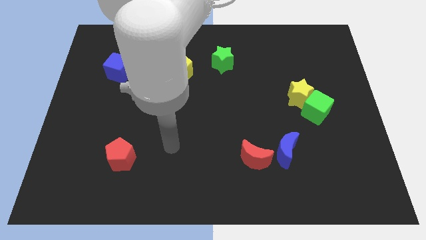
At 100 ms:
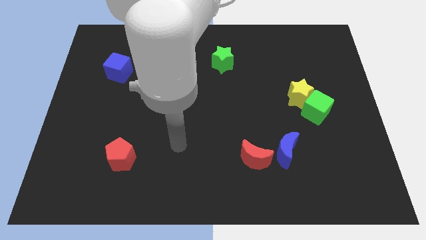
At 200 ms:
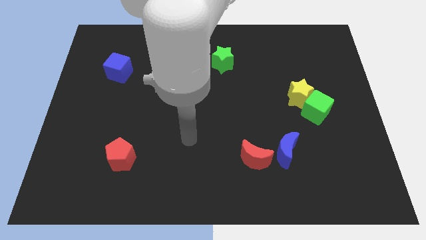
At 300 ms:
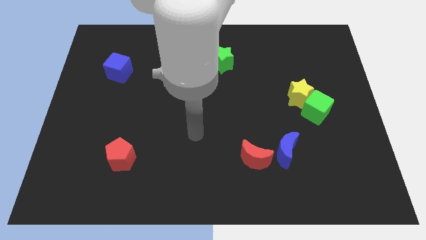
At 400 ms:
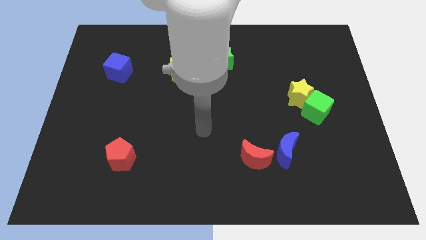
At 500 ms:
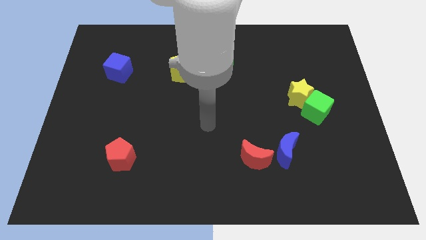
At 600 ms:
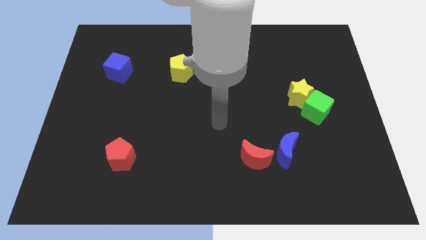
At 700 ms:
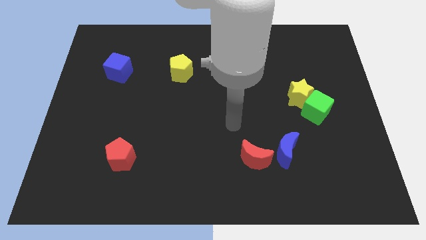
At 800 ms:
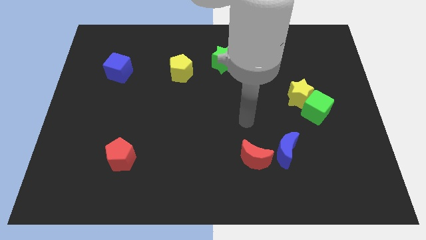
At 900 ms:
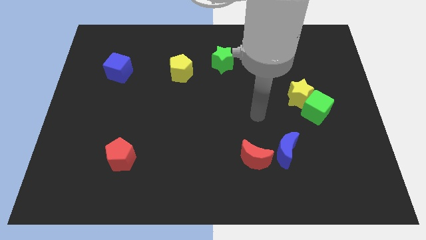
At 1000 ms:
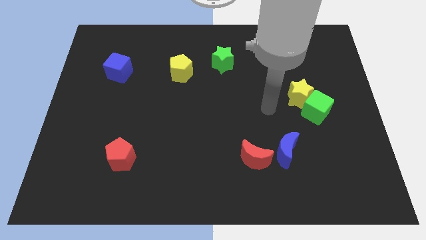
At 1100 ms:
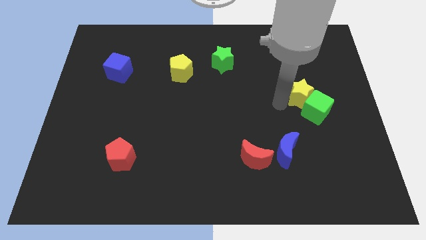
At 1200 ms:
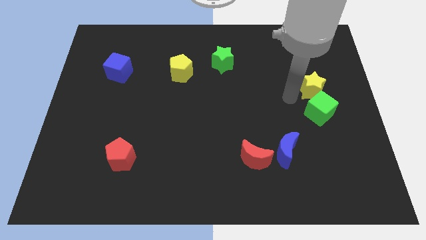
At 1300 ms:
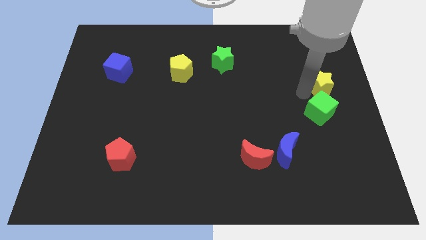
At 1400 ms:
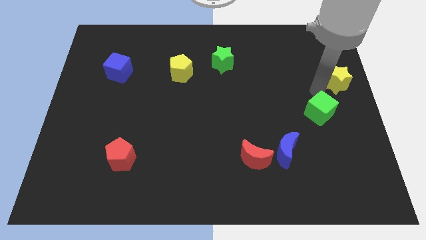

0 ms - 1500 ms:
separate the green cube from the yellow star

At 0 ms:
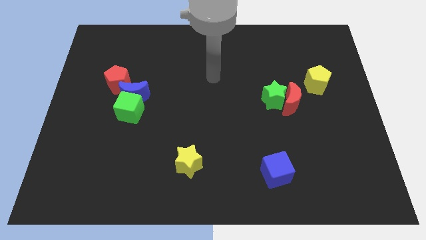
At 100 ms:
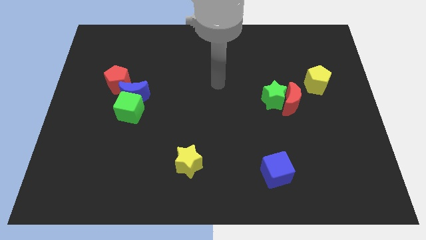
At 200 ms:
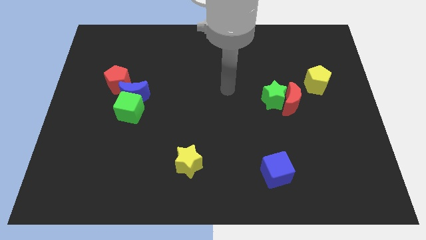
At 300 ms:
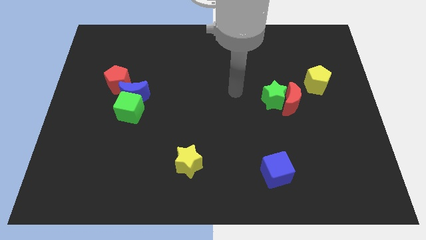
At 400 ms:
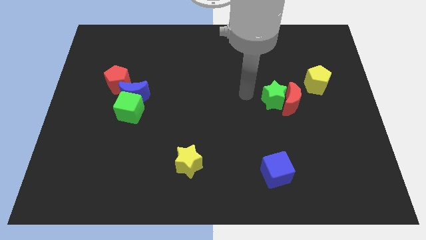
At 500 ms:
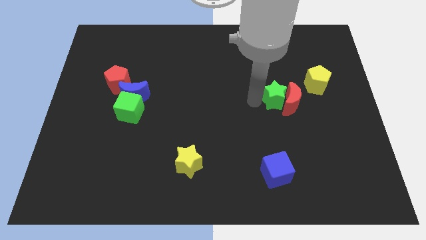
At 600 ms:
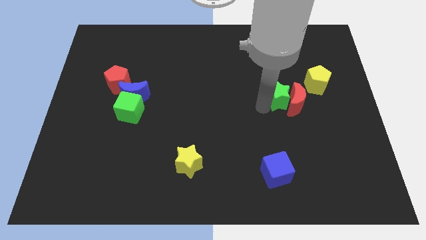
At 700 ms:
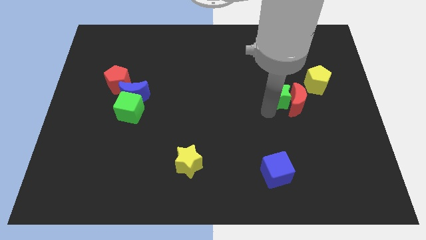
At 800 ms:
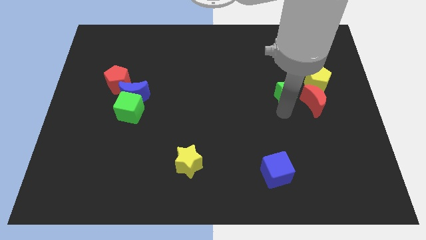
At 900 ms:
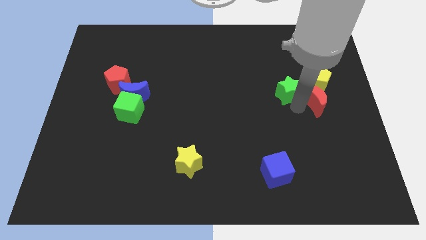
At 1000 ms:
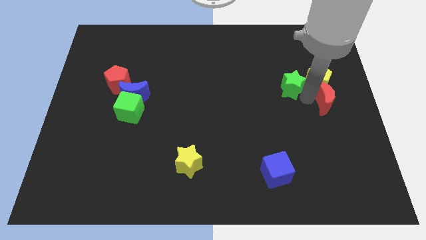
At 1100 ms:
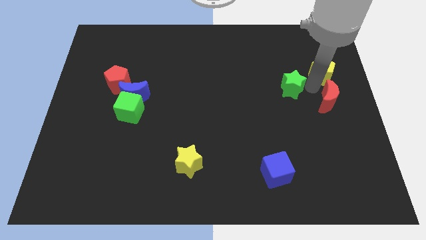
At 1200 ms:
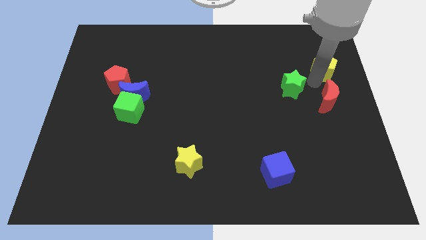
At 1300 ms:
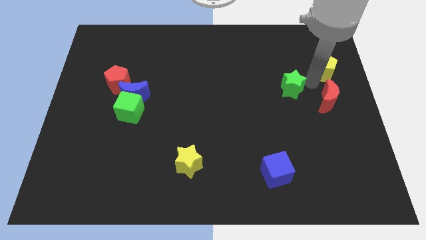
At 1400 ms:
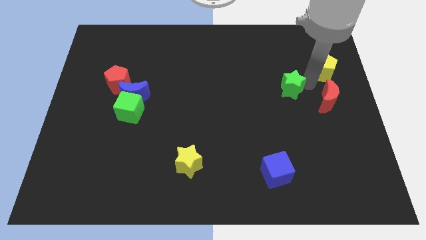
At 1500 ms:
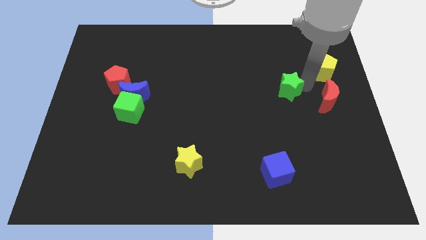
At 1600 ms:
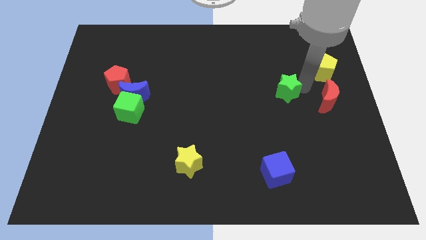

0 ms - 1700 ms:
separate the green star from the red moon

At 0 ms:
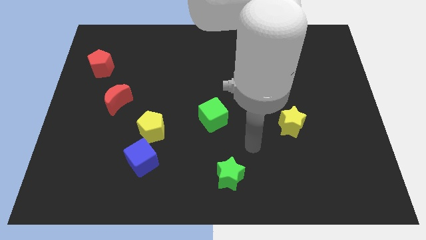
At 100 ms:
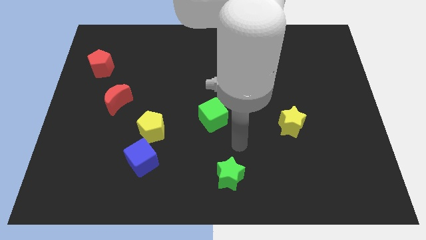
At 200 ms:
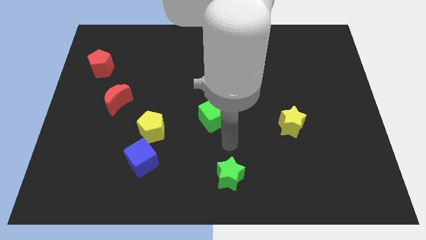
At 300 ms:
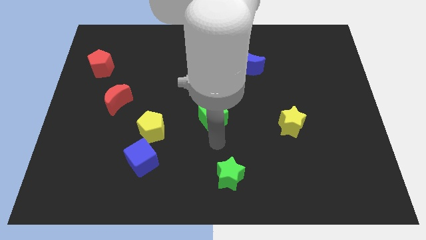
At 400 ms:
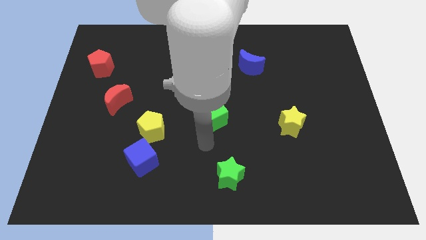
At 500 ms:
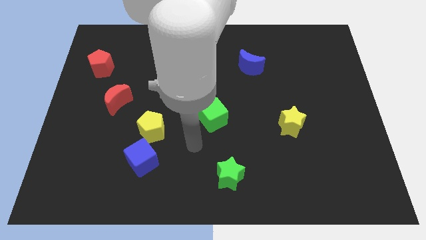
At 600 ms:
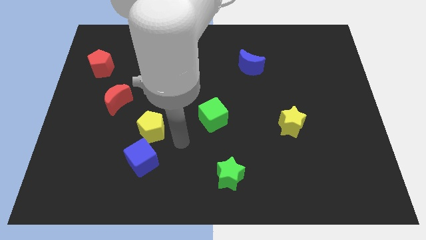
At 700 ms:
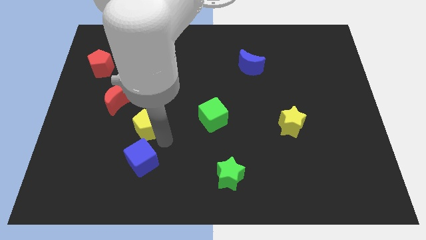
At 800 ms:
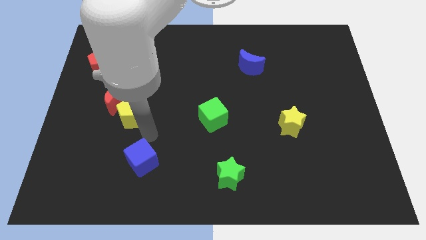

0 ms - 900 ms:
move the blue cube away from the yellow pentagon

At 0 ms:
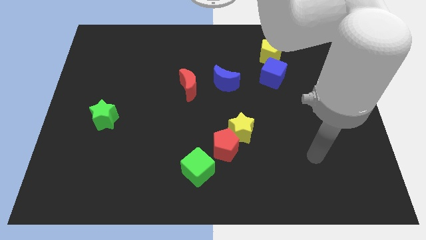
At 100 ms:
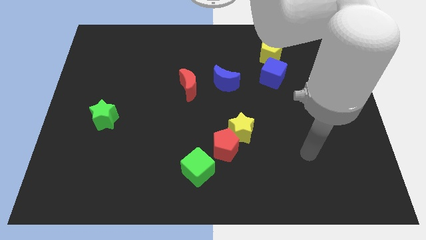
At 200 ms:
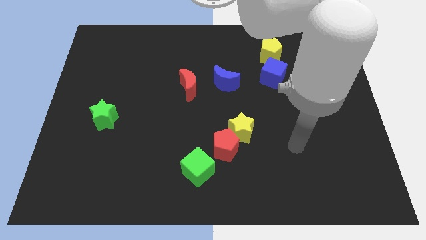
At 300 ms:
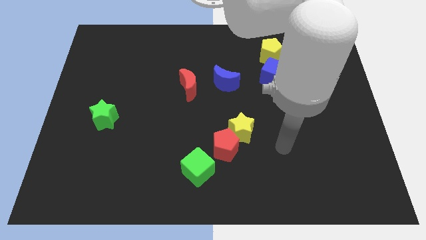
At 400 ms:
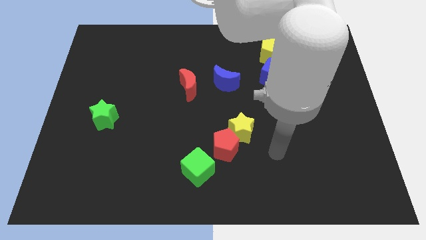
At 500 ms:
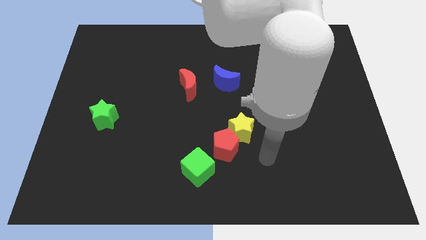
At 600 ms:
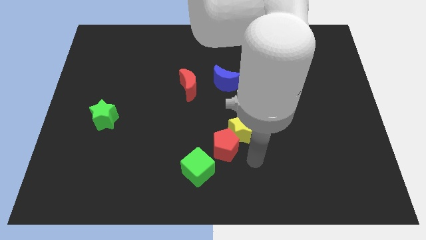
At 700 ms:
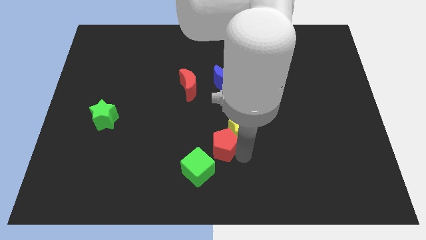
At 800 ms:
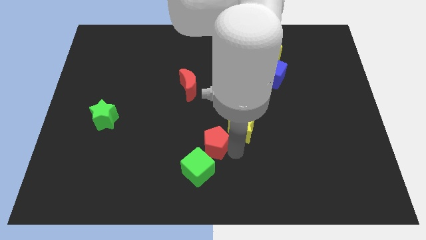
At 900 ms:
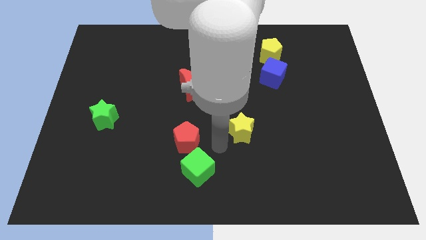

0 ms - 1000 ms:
move the yellow star away from the red pentagon

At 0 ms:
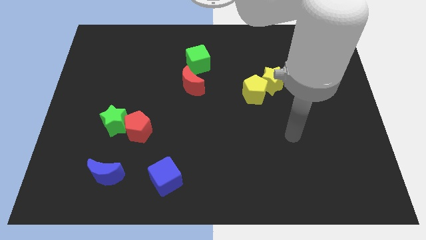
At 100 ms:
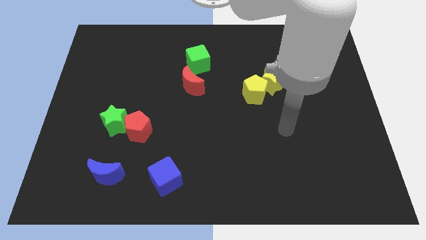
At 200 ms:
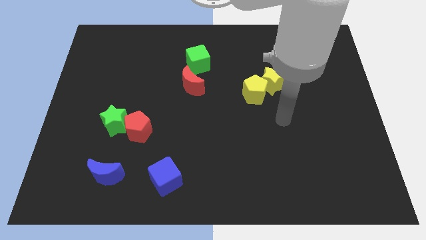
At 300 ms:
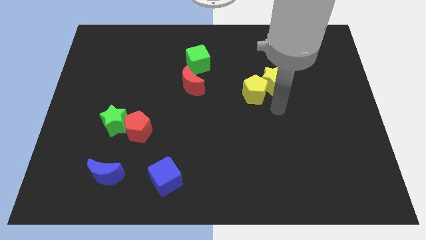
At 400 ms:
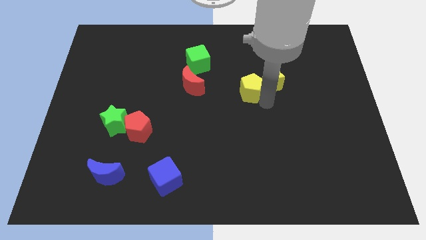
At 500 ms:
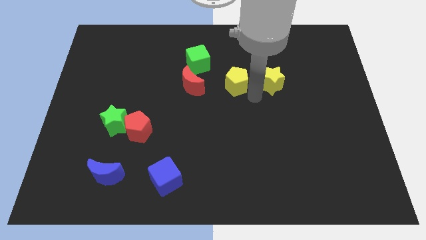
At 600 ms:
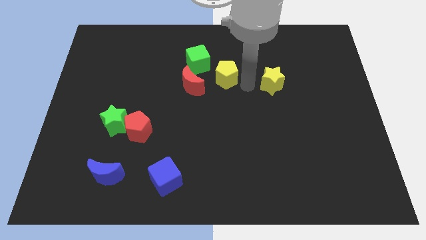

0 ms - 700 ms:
pull the yellow star apart from the yellow pentagon

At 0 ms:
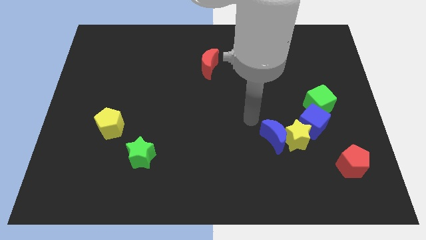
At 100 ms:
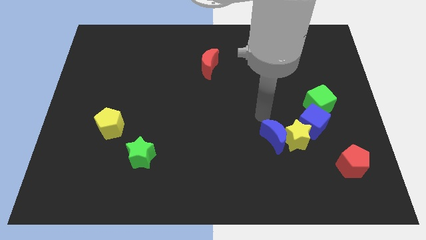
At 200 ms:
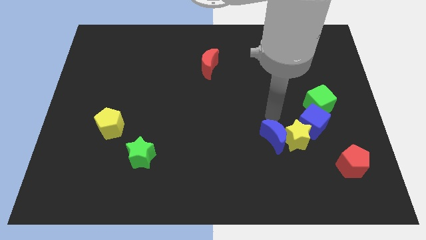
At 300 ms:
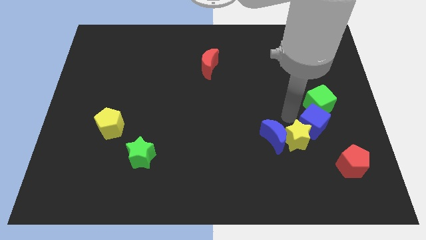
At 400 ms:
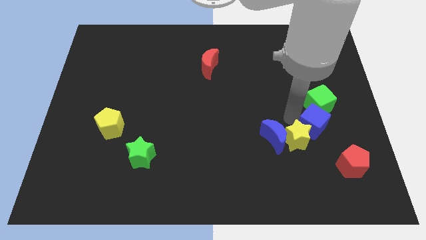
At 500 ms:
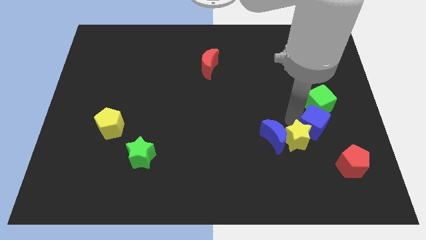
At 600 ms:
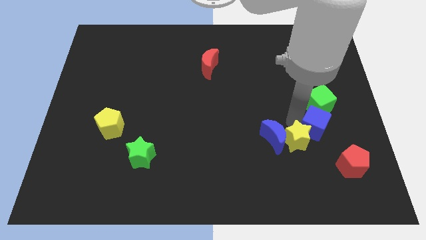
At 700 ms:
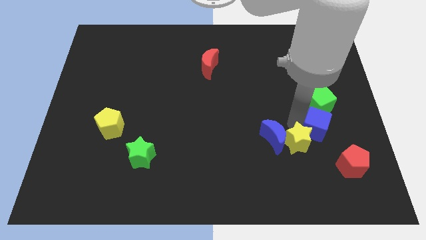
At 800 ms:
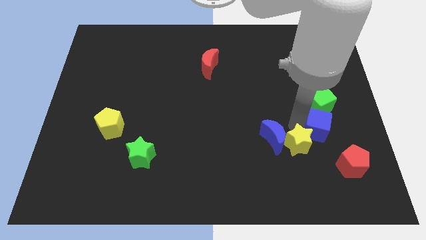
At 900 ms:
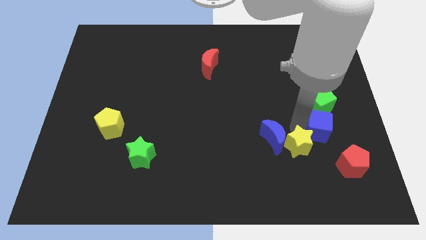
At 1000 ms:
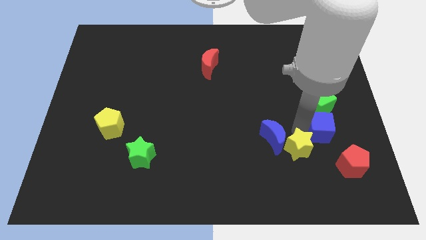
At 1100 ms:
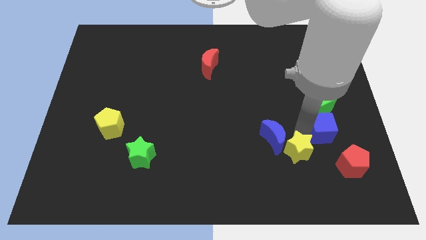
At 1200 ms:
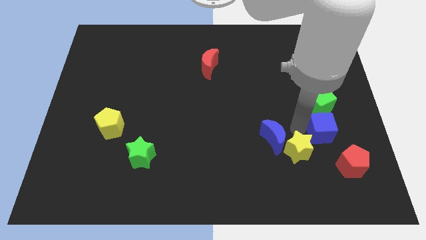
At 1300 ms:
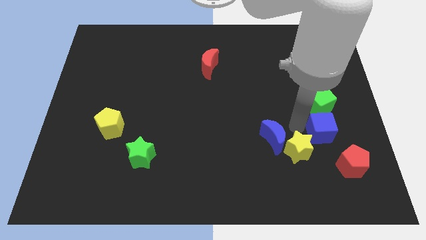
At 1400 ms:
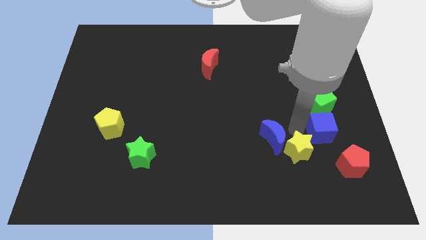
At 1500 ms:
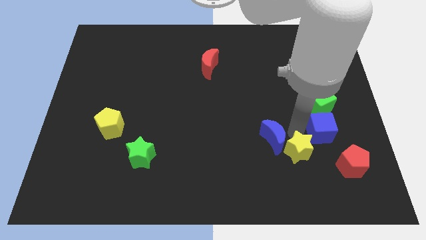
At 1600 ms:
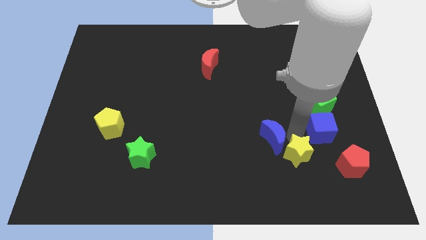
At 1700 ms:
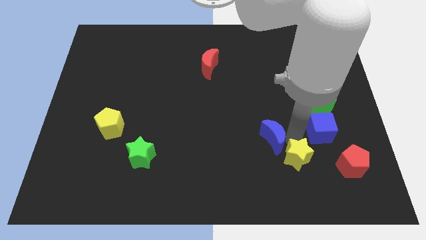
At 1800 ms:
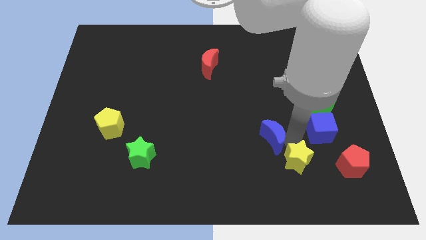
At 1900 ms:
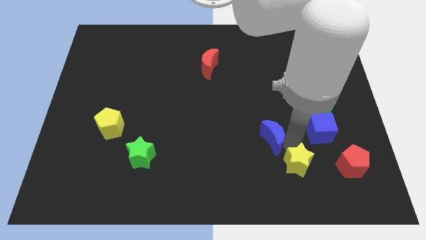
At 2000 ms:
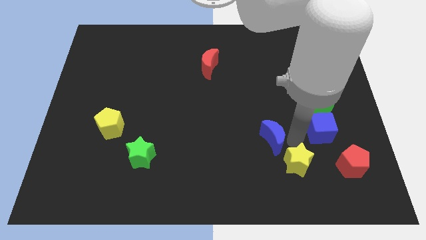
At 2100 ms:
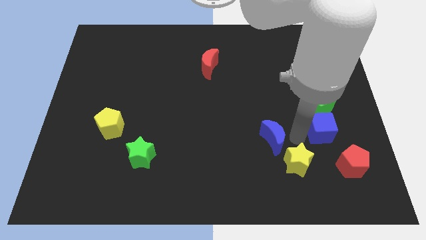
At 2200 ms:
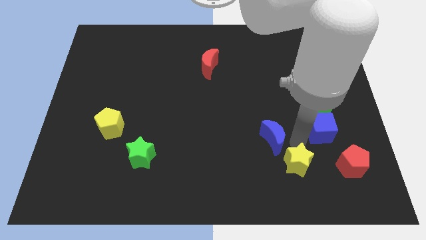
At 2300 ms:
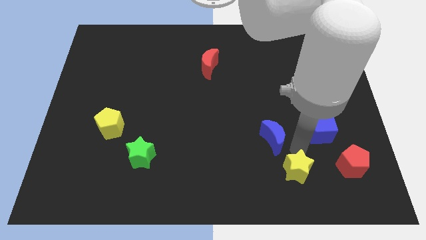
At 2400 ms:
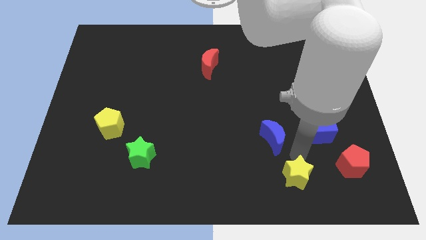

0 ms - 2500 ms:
move the yellow star away from the blue moon and blue cube

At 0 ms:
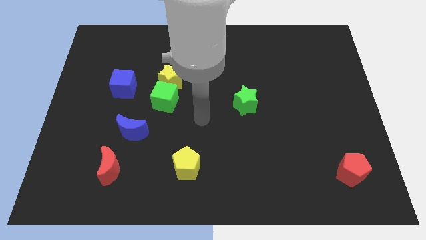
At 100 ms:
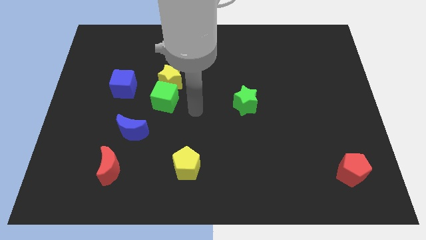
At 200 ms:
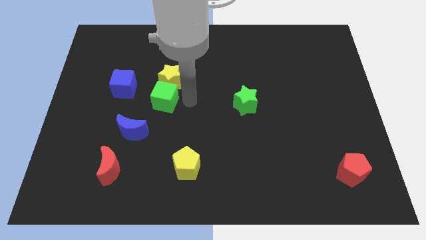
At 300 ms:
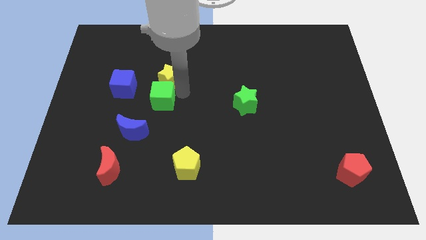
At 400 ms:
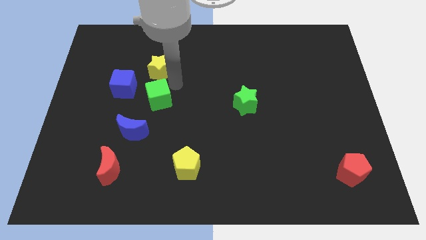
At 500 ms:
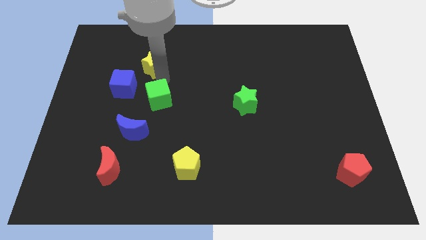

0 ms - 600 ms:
pull the green cube apart from the yellow star

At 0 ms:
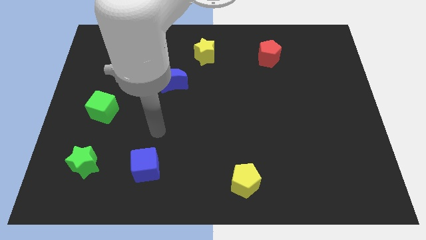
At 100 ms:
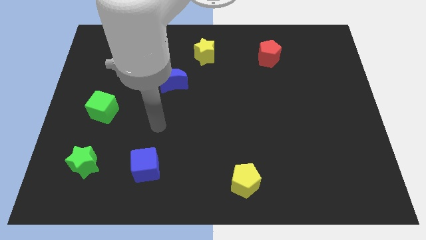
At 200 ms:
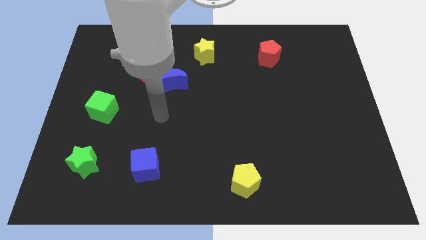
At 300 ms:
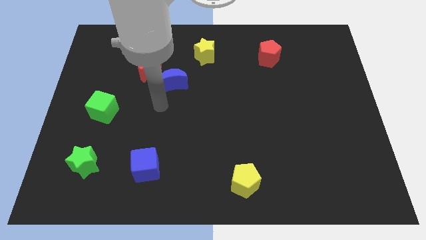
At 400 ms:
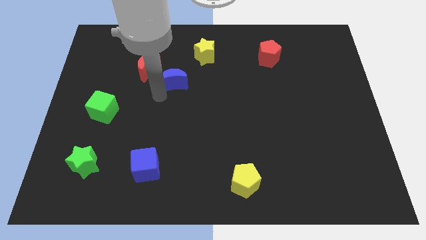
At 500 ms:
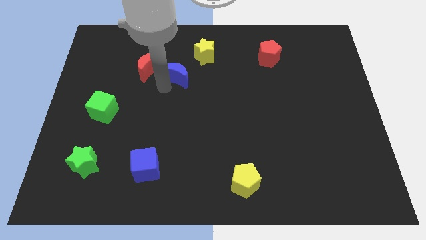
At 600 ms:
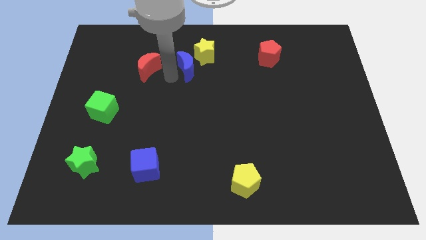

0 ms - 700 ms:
separate the red moon from the blue moon
